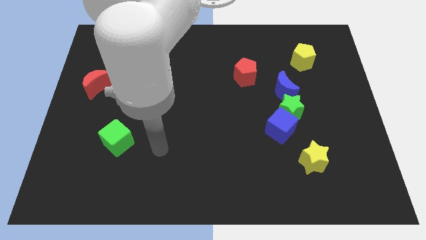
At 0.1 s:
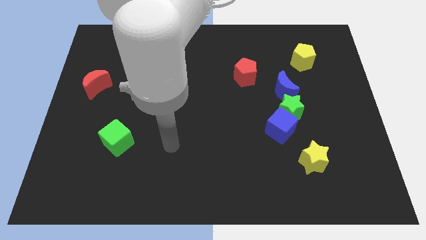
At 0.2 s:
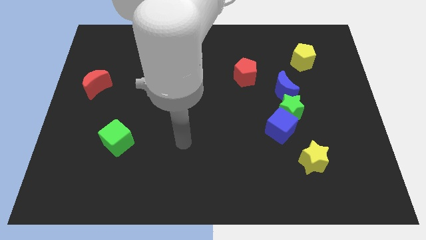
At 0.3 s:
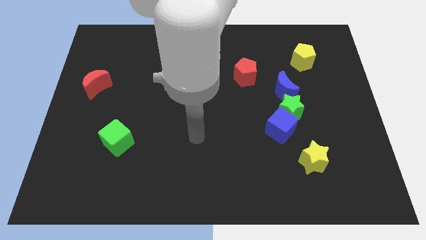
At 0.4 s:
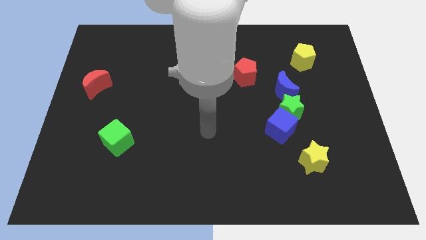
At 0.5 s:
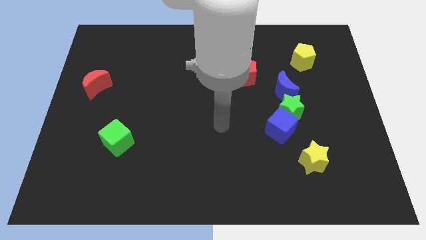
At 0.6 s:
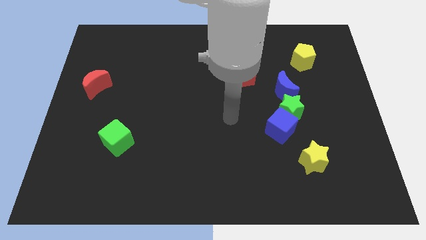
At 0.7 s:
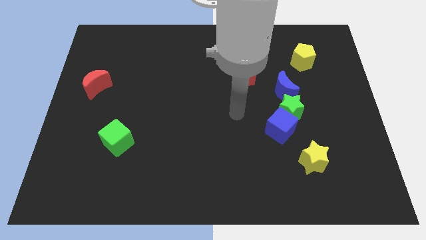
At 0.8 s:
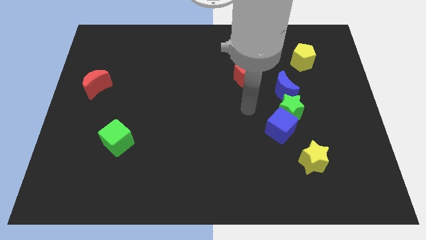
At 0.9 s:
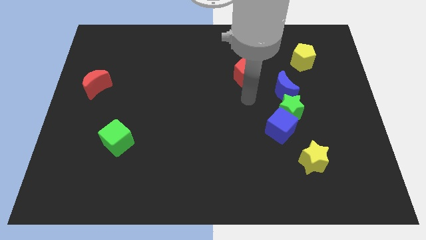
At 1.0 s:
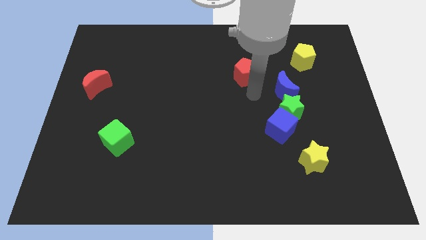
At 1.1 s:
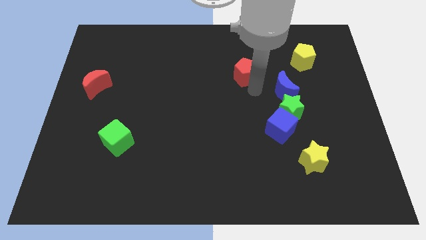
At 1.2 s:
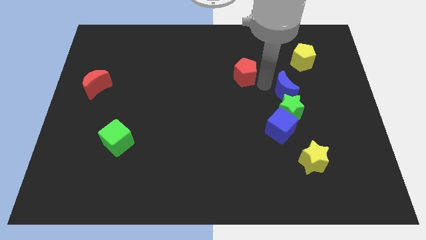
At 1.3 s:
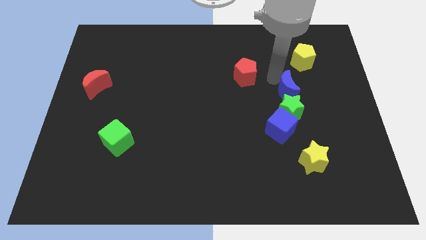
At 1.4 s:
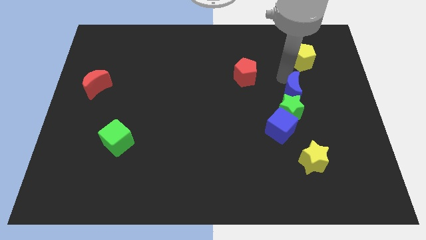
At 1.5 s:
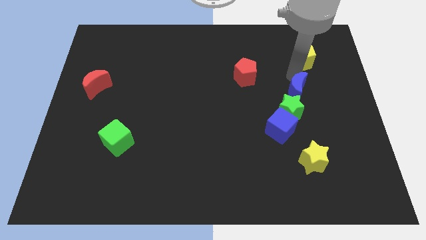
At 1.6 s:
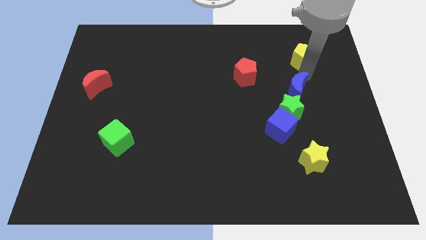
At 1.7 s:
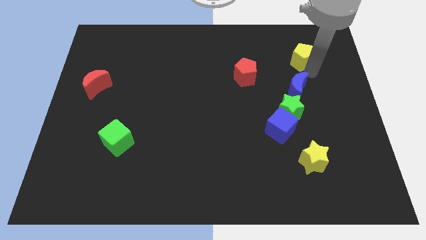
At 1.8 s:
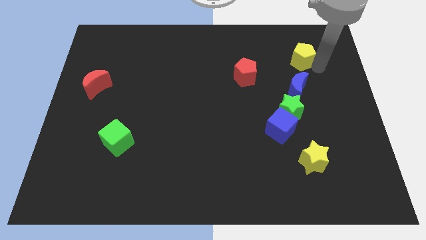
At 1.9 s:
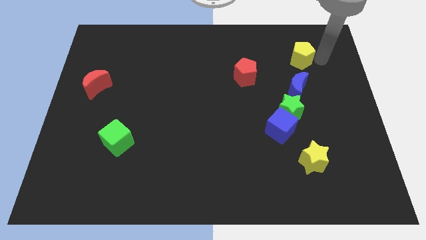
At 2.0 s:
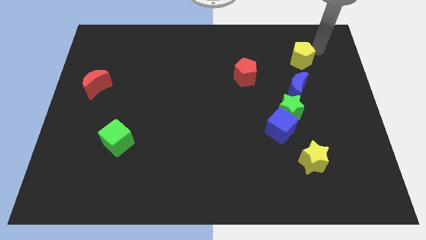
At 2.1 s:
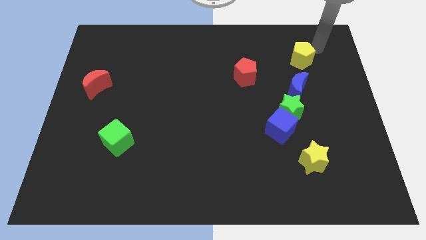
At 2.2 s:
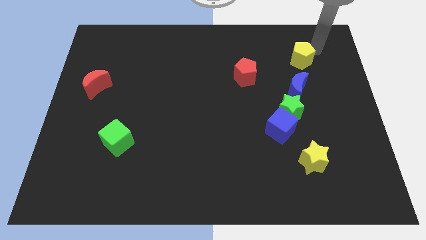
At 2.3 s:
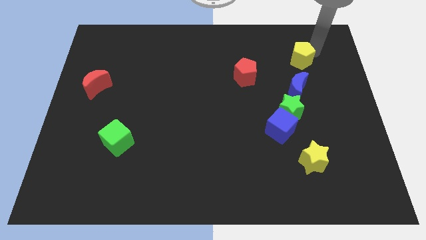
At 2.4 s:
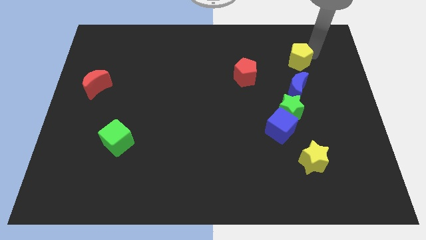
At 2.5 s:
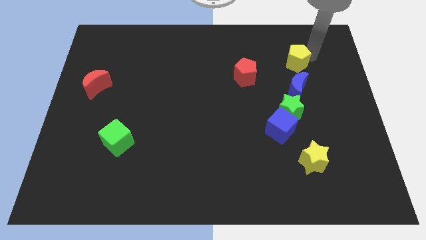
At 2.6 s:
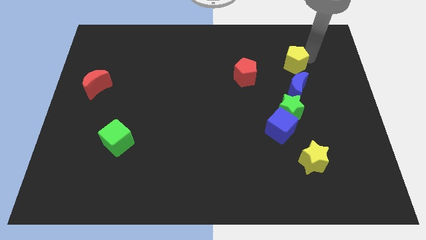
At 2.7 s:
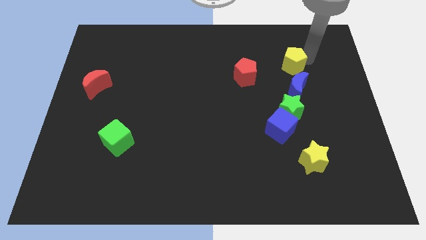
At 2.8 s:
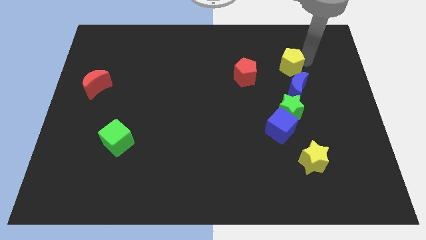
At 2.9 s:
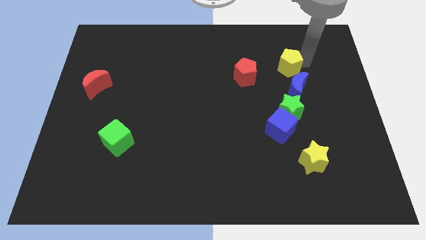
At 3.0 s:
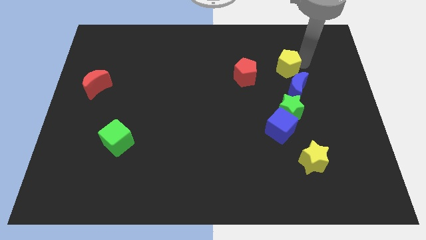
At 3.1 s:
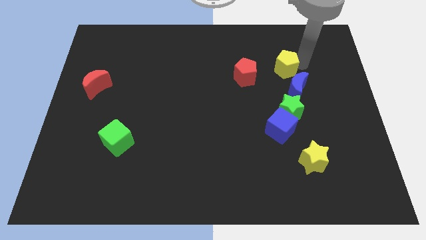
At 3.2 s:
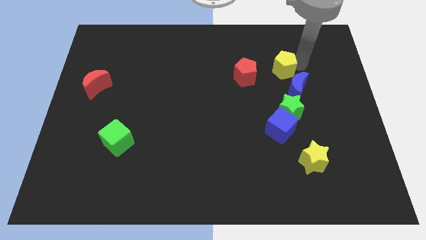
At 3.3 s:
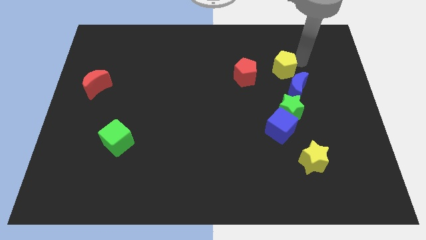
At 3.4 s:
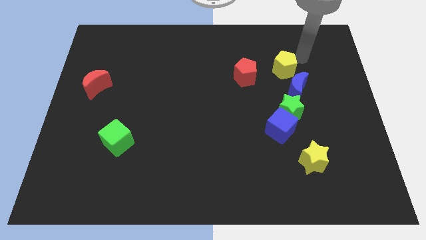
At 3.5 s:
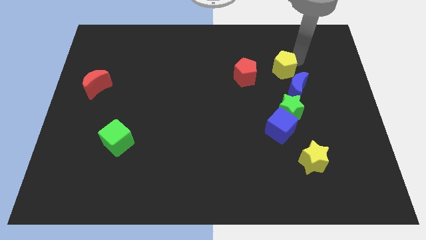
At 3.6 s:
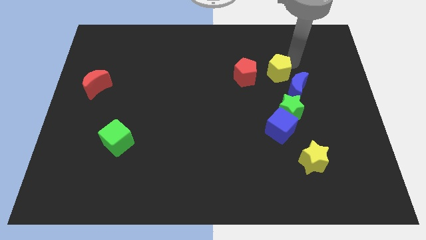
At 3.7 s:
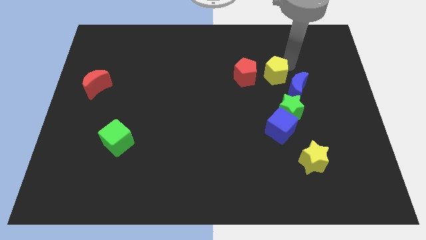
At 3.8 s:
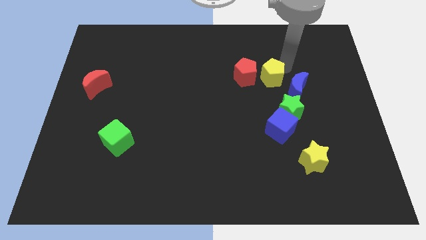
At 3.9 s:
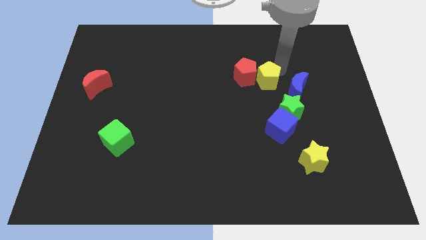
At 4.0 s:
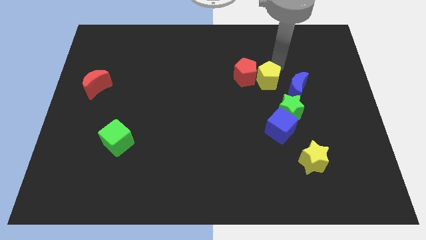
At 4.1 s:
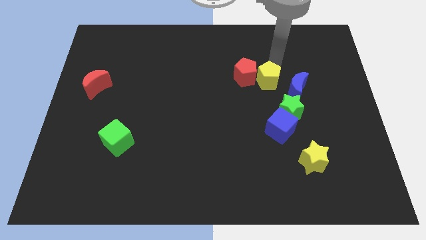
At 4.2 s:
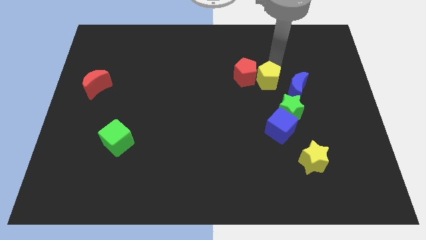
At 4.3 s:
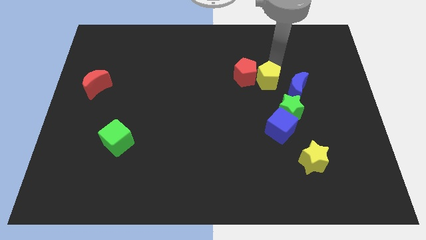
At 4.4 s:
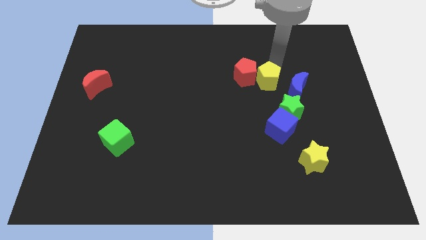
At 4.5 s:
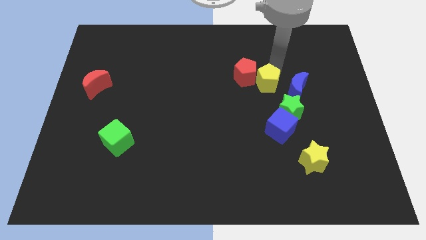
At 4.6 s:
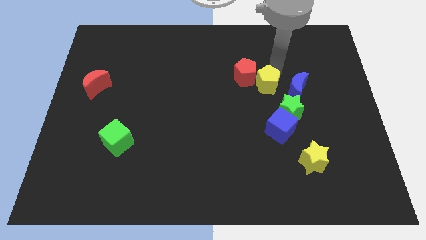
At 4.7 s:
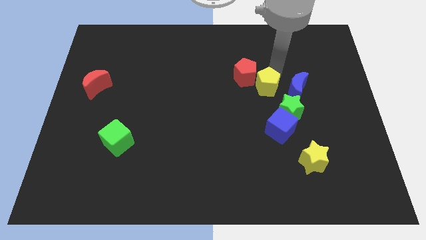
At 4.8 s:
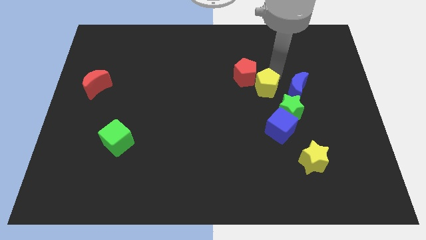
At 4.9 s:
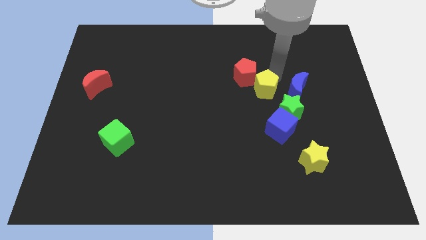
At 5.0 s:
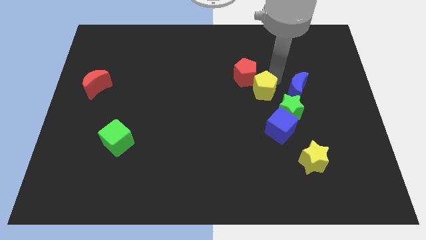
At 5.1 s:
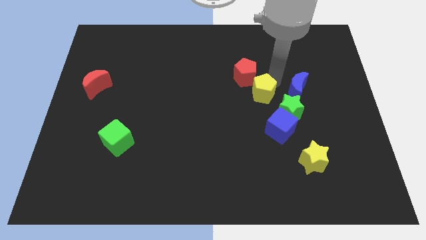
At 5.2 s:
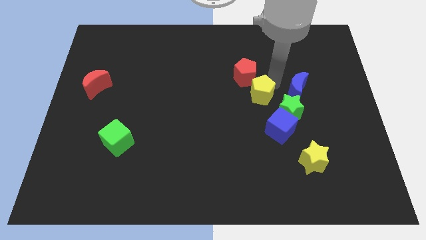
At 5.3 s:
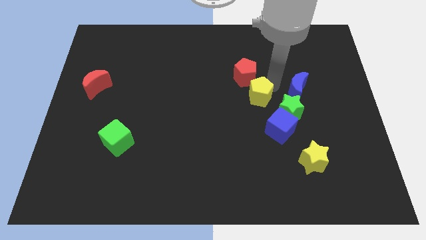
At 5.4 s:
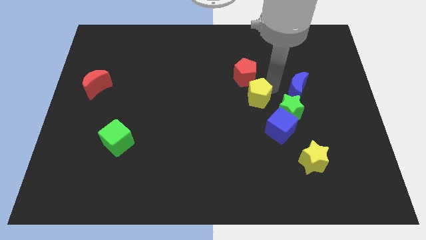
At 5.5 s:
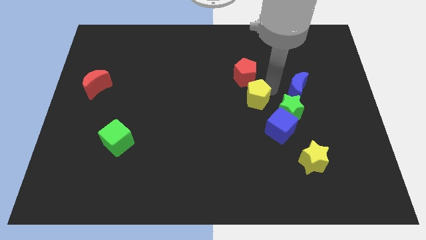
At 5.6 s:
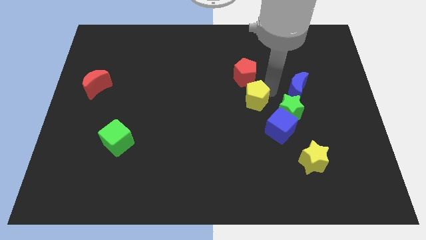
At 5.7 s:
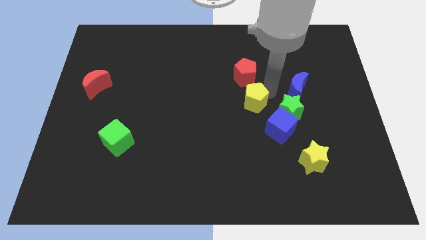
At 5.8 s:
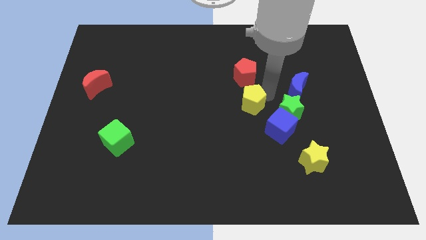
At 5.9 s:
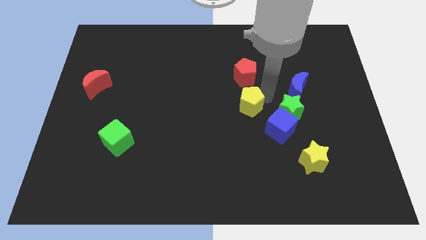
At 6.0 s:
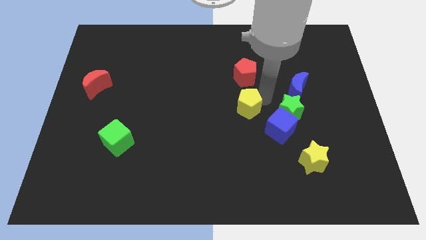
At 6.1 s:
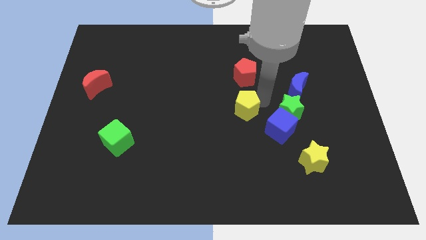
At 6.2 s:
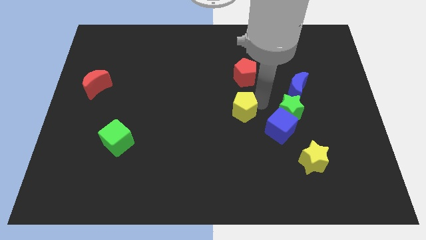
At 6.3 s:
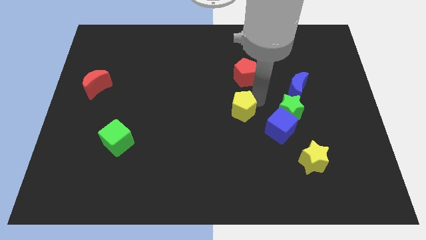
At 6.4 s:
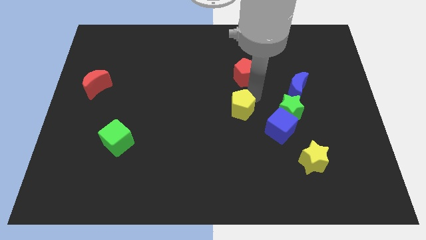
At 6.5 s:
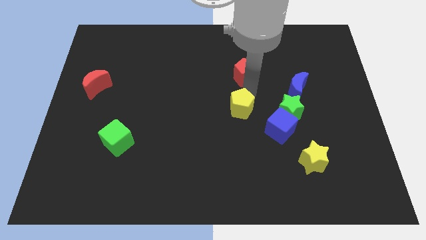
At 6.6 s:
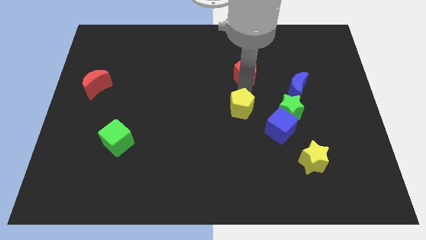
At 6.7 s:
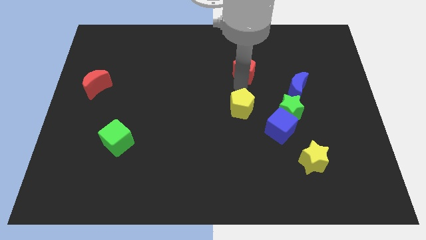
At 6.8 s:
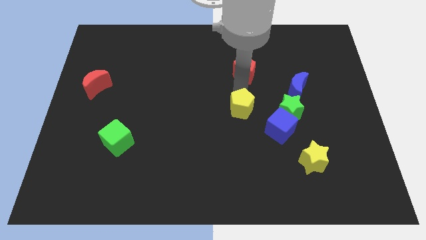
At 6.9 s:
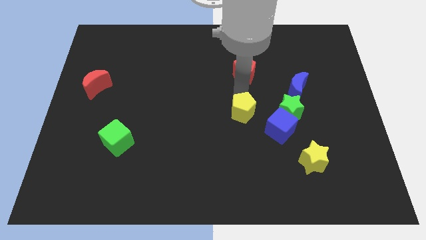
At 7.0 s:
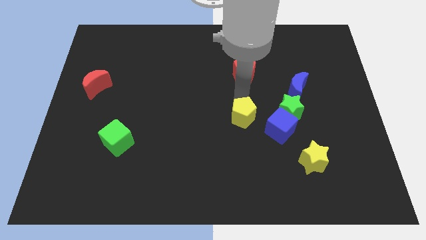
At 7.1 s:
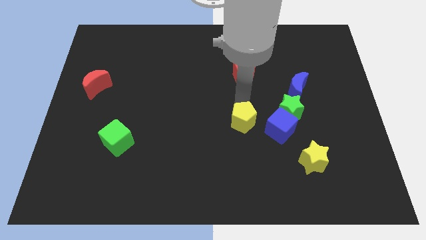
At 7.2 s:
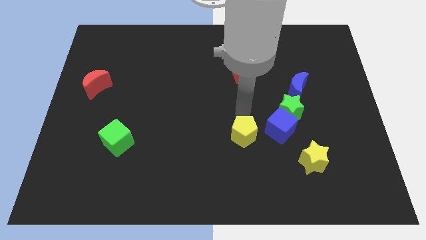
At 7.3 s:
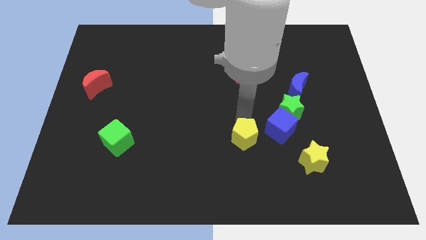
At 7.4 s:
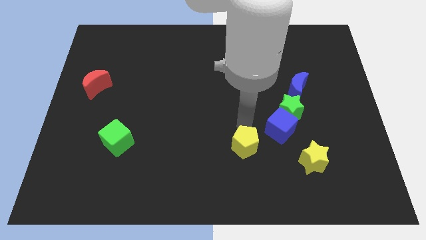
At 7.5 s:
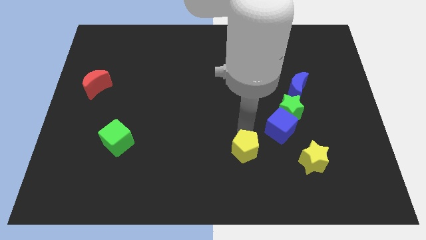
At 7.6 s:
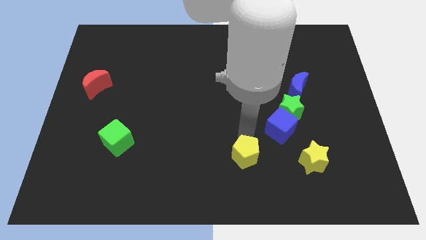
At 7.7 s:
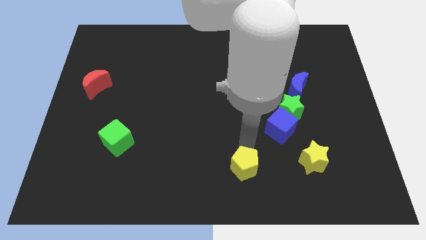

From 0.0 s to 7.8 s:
slide the yellow pentagon to the bottom

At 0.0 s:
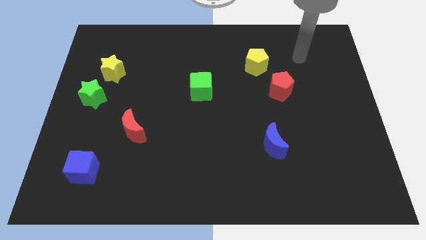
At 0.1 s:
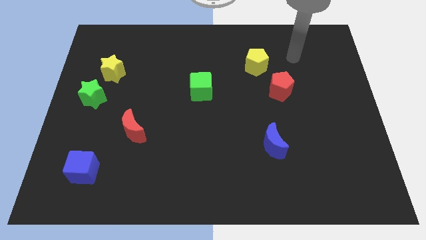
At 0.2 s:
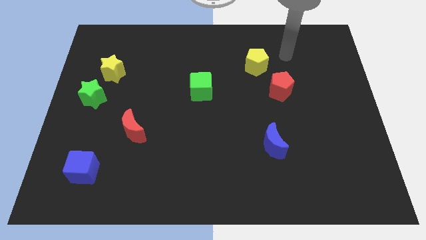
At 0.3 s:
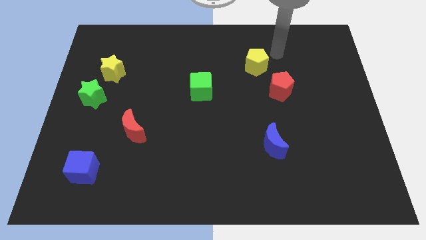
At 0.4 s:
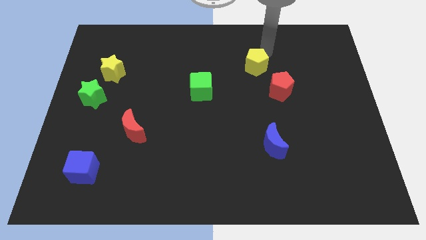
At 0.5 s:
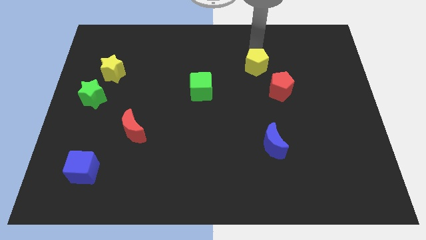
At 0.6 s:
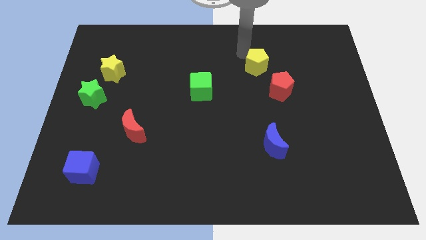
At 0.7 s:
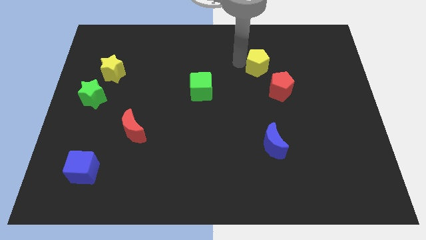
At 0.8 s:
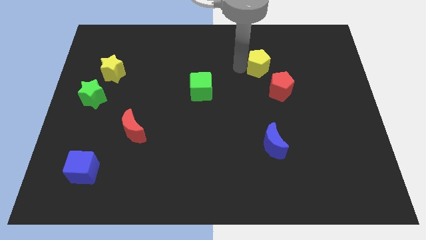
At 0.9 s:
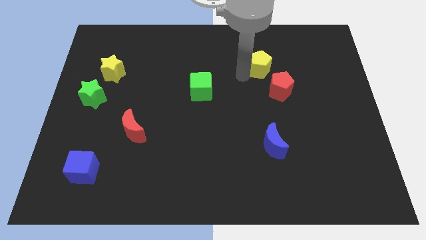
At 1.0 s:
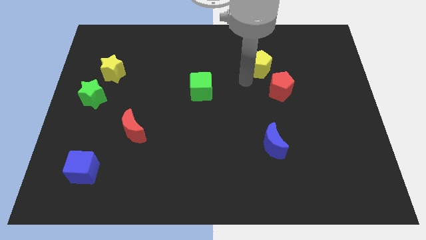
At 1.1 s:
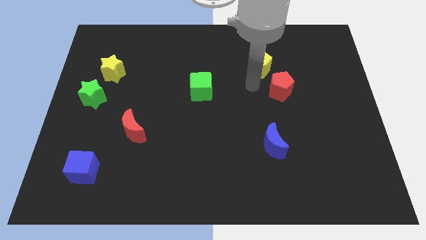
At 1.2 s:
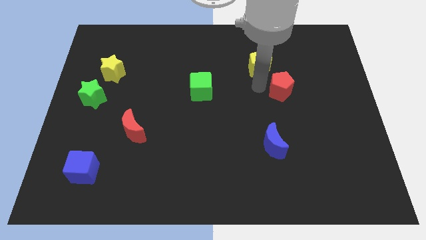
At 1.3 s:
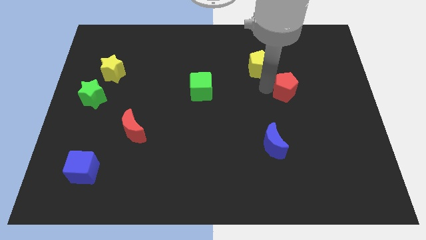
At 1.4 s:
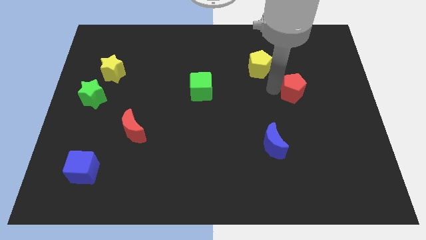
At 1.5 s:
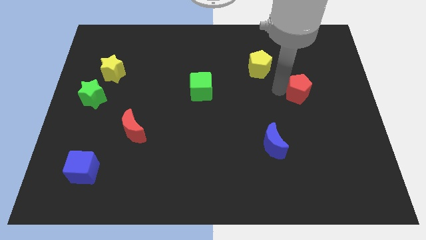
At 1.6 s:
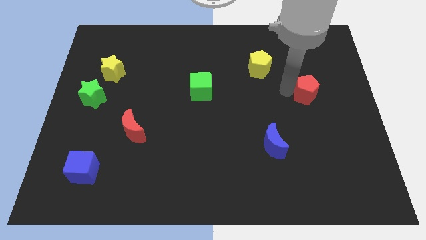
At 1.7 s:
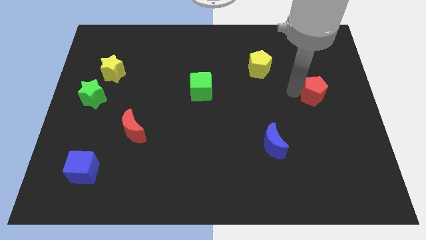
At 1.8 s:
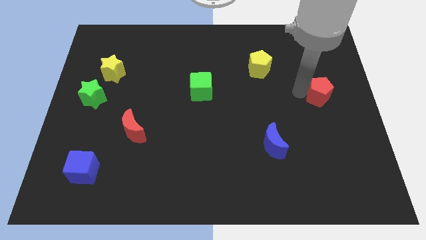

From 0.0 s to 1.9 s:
push the red pentagon to the right side of the board
